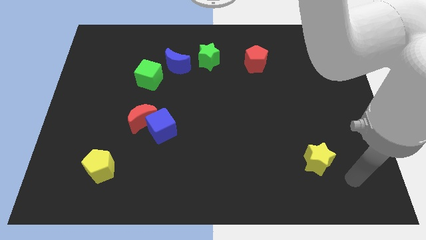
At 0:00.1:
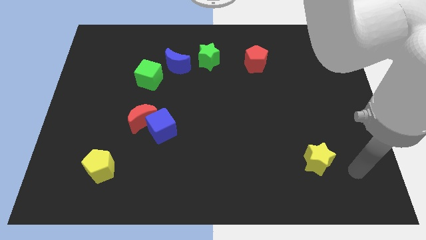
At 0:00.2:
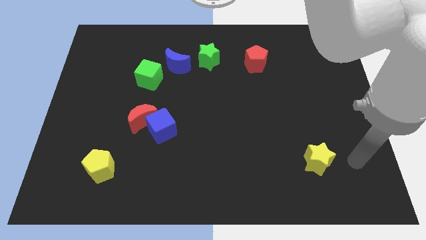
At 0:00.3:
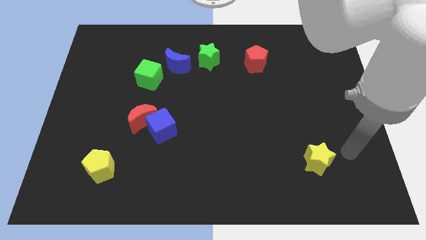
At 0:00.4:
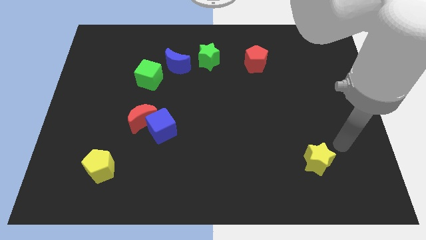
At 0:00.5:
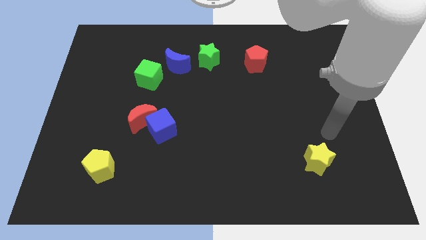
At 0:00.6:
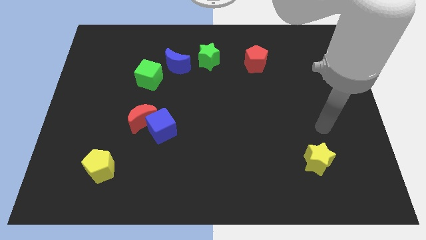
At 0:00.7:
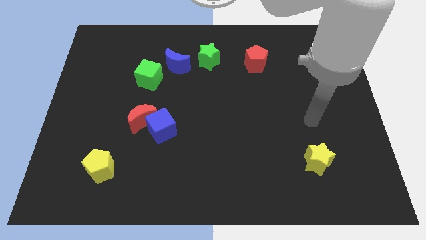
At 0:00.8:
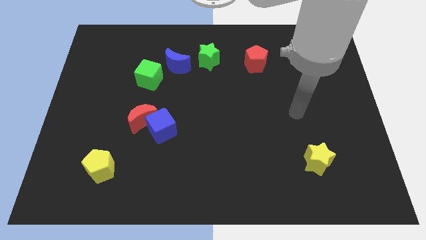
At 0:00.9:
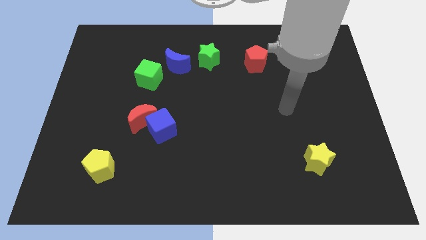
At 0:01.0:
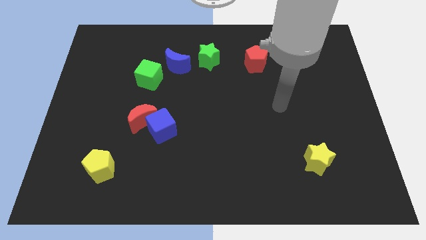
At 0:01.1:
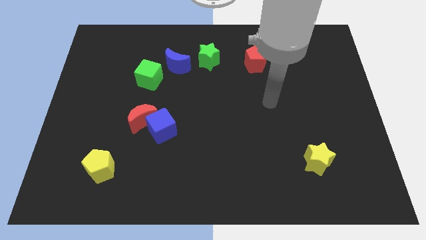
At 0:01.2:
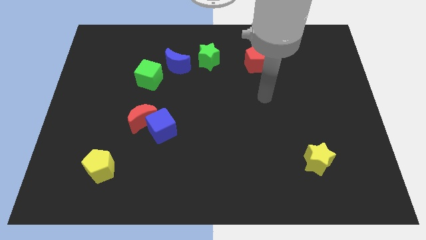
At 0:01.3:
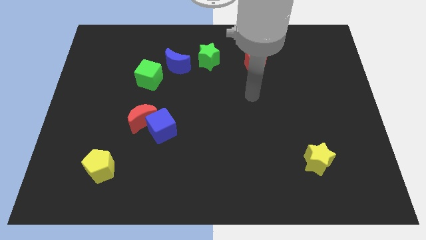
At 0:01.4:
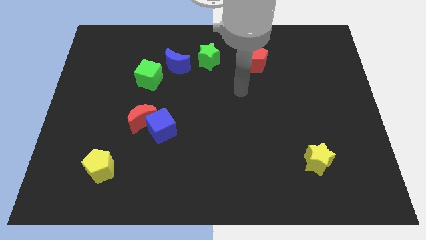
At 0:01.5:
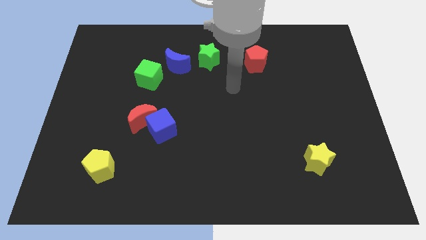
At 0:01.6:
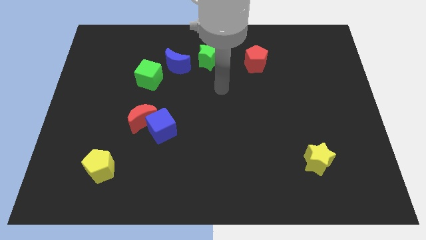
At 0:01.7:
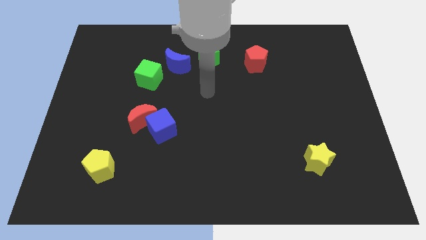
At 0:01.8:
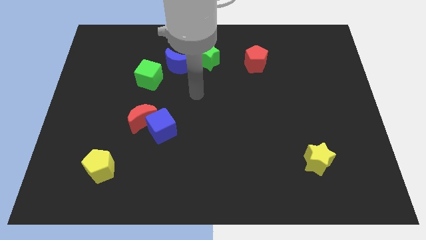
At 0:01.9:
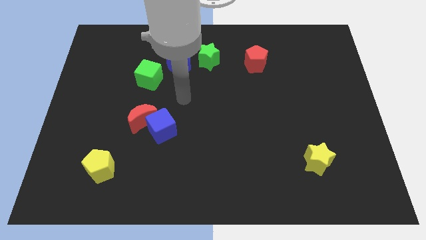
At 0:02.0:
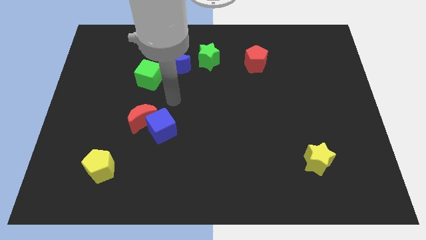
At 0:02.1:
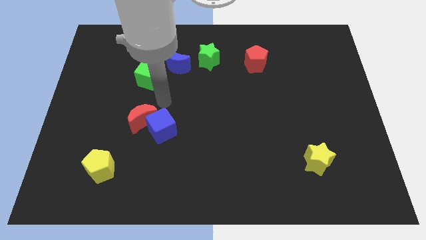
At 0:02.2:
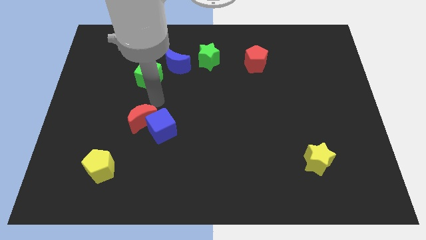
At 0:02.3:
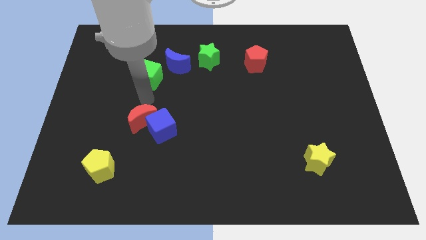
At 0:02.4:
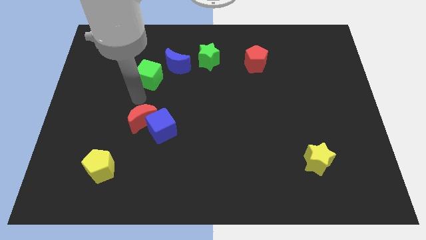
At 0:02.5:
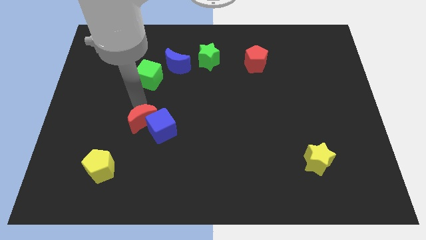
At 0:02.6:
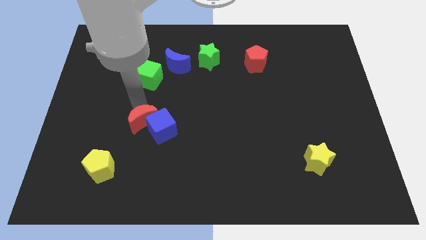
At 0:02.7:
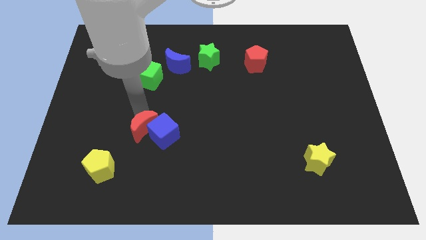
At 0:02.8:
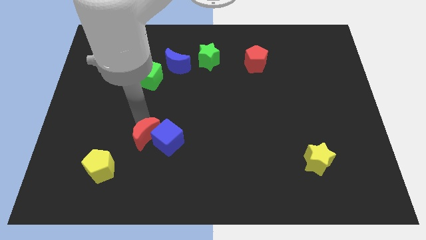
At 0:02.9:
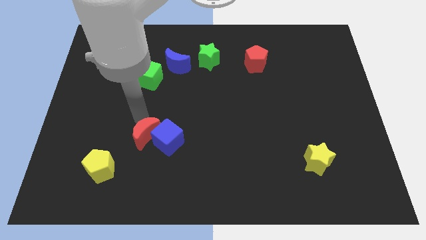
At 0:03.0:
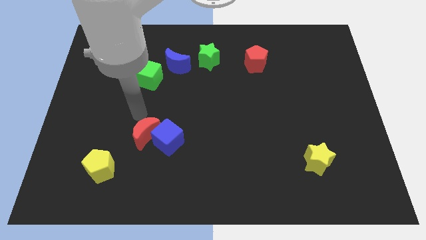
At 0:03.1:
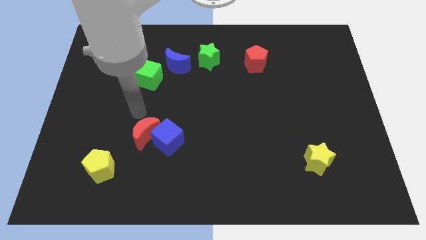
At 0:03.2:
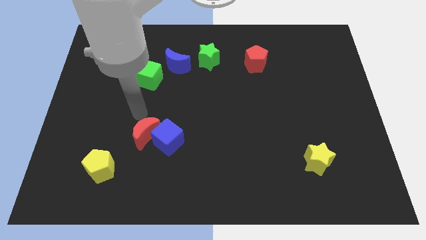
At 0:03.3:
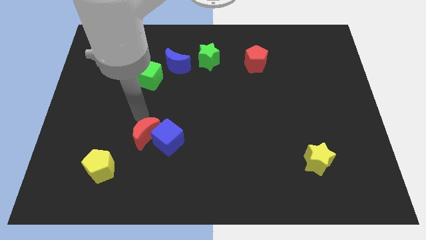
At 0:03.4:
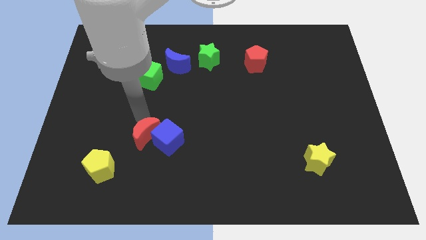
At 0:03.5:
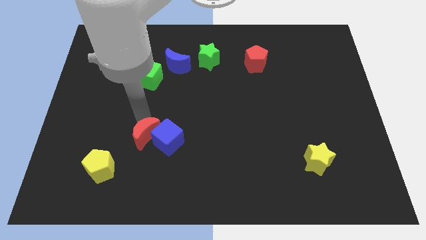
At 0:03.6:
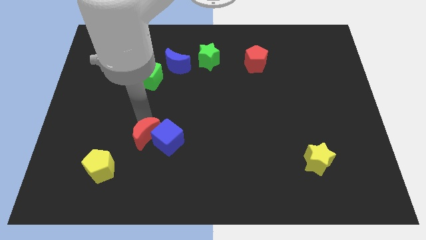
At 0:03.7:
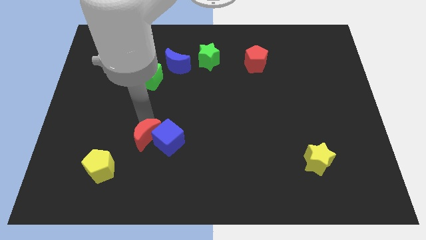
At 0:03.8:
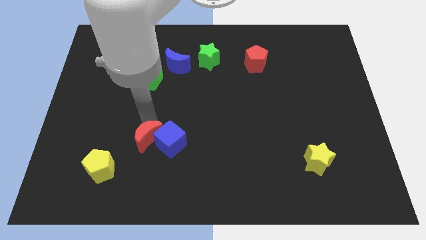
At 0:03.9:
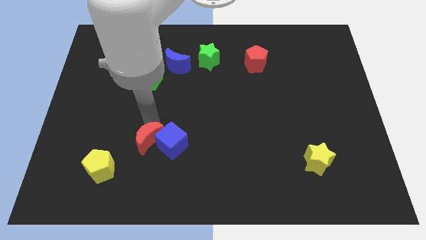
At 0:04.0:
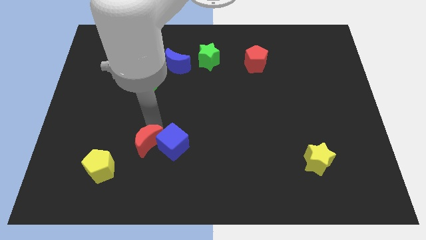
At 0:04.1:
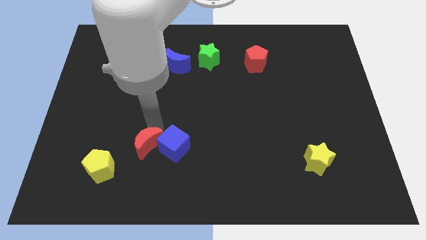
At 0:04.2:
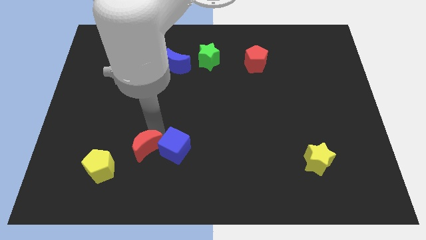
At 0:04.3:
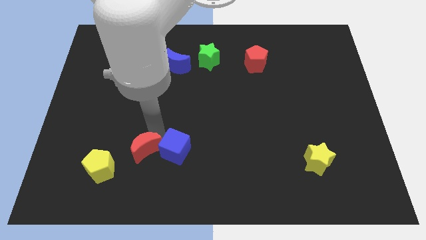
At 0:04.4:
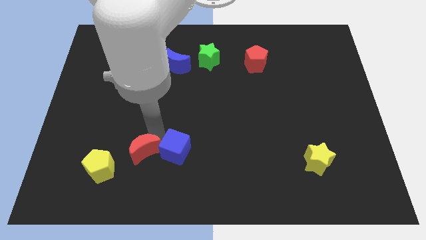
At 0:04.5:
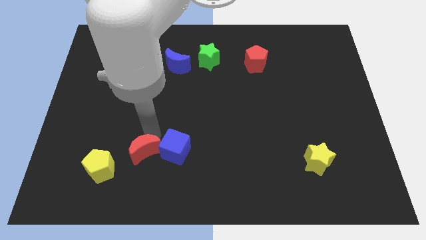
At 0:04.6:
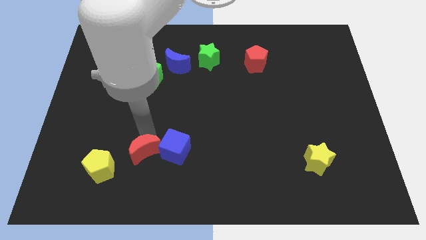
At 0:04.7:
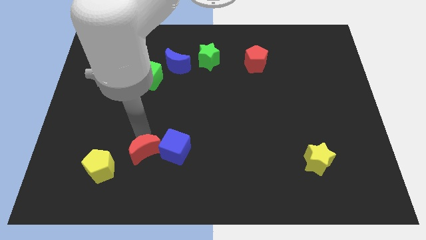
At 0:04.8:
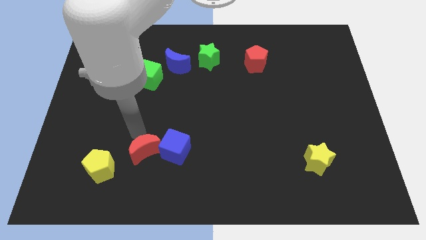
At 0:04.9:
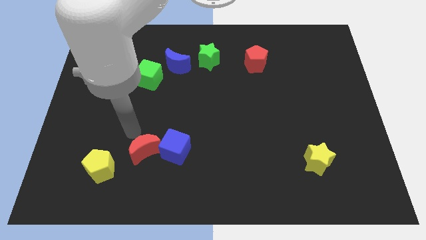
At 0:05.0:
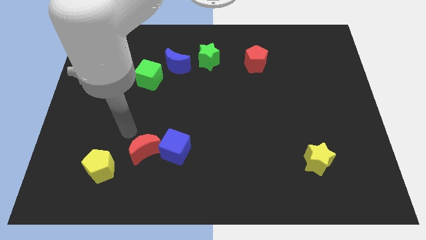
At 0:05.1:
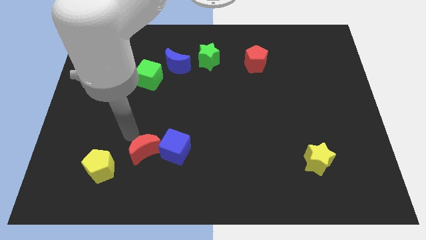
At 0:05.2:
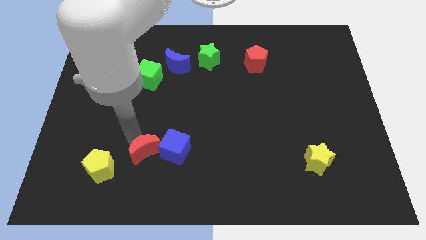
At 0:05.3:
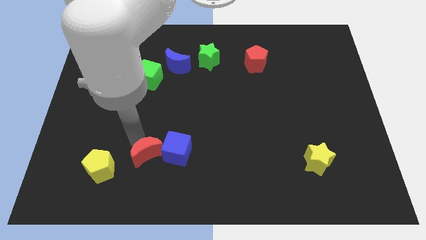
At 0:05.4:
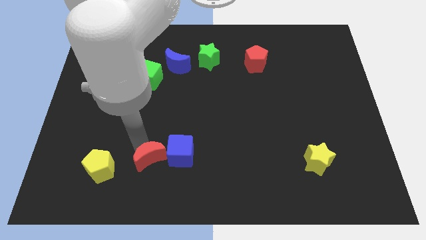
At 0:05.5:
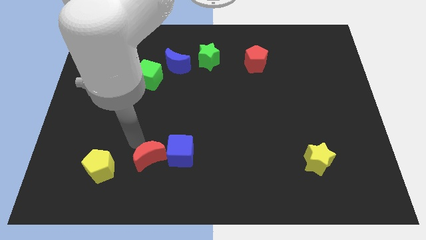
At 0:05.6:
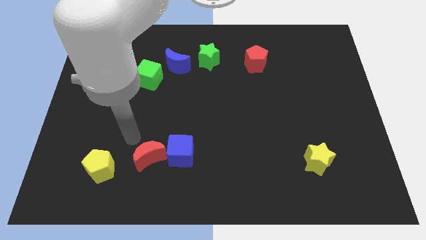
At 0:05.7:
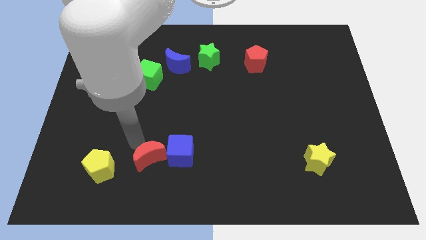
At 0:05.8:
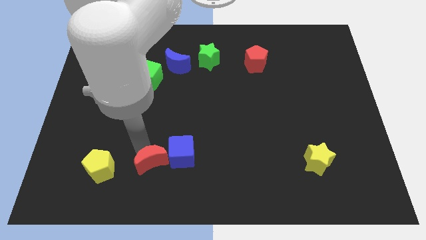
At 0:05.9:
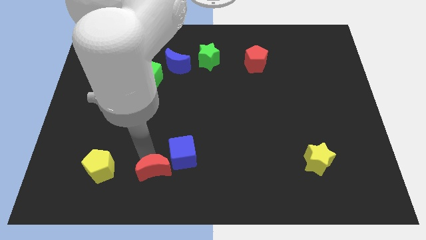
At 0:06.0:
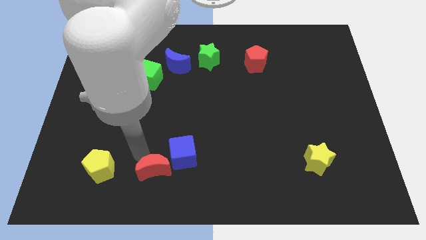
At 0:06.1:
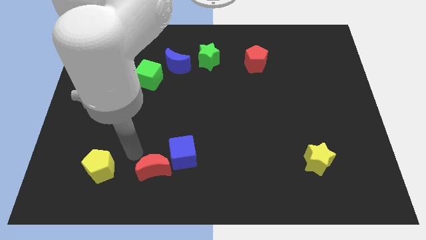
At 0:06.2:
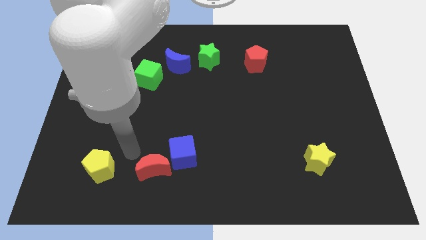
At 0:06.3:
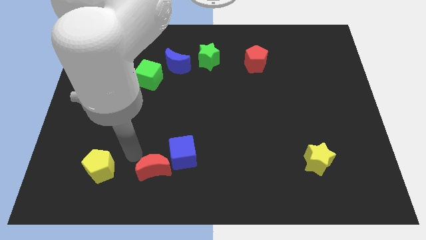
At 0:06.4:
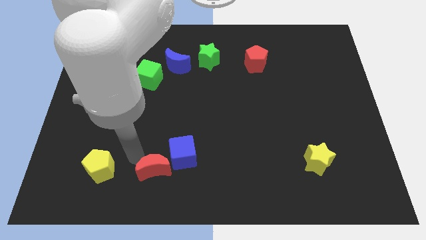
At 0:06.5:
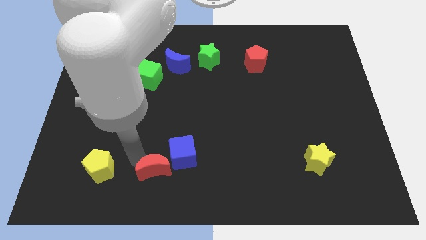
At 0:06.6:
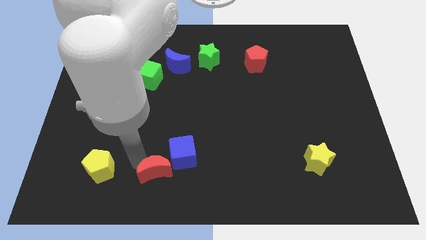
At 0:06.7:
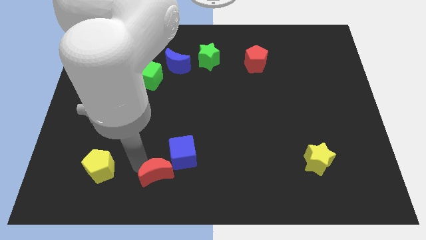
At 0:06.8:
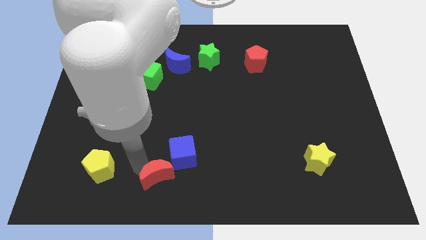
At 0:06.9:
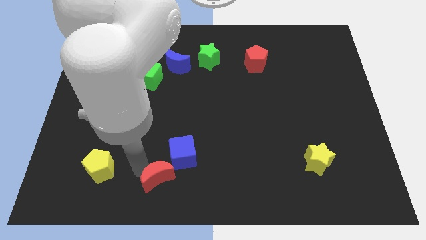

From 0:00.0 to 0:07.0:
move the red moon to the bottom

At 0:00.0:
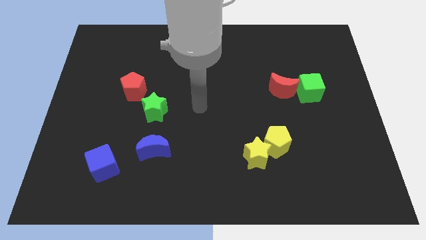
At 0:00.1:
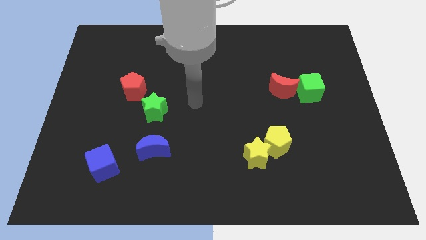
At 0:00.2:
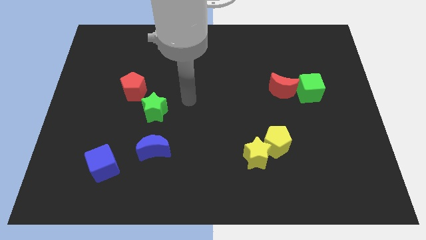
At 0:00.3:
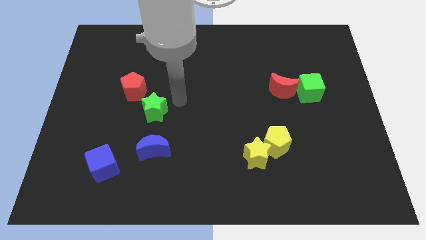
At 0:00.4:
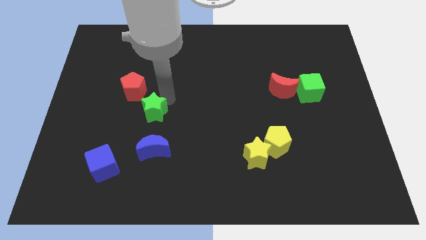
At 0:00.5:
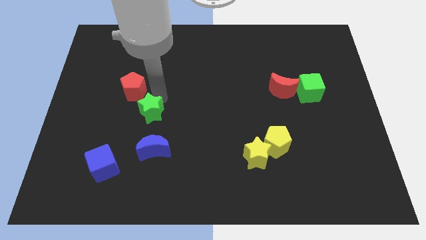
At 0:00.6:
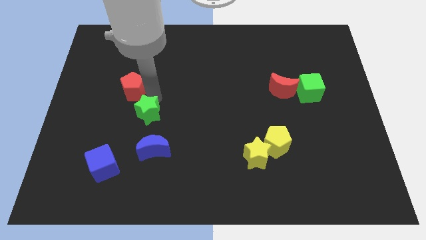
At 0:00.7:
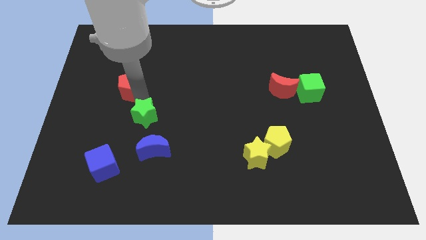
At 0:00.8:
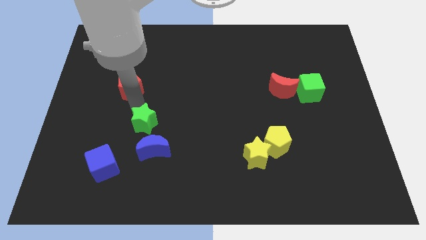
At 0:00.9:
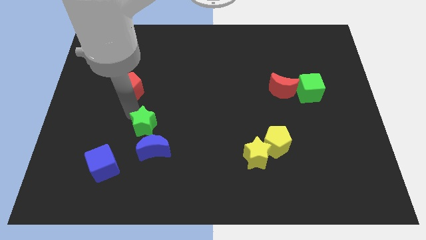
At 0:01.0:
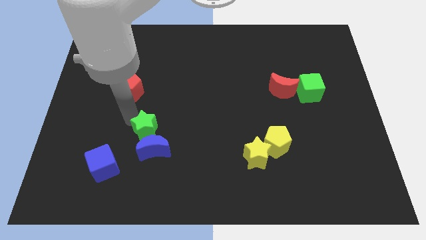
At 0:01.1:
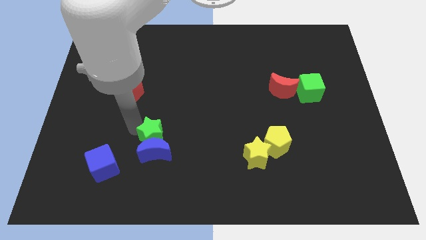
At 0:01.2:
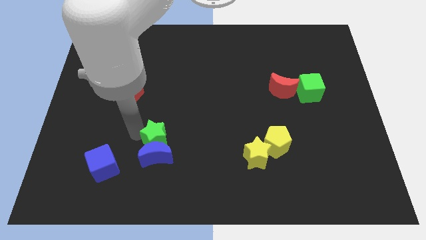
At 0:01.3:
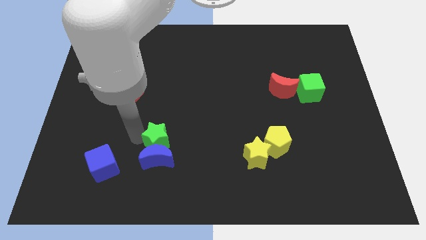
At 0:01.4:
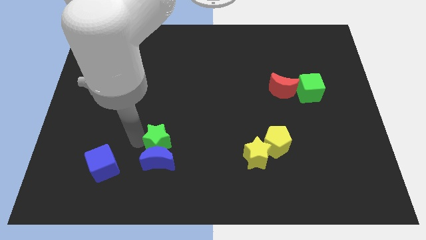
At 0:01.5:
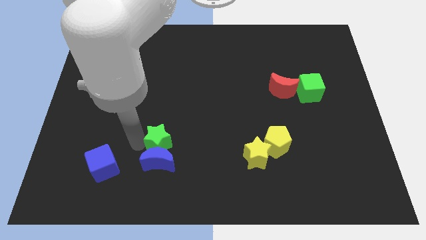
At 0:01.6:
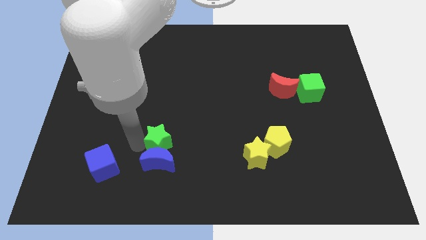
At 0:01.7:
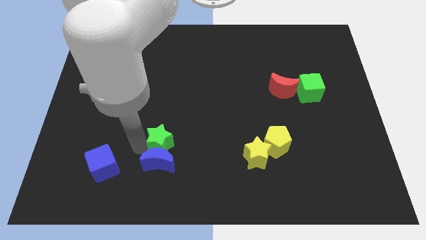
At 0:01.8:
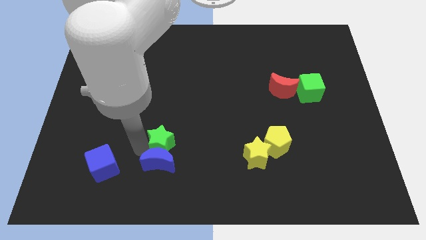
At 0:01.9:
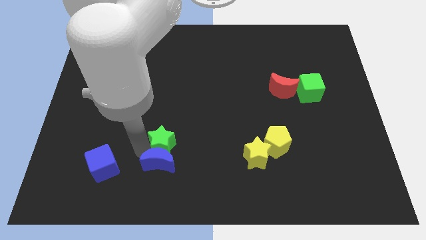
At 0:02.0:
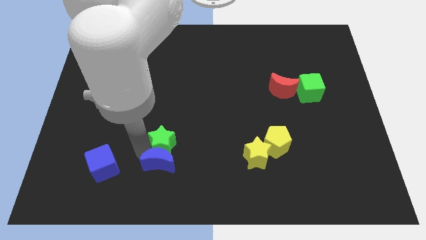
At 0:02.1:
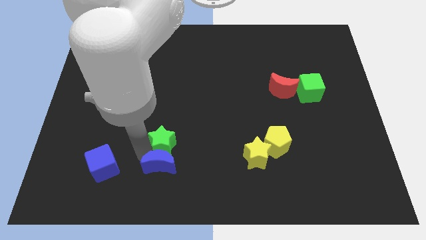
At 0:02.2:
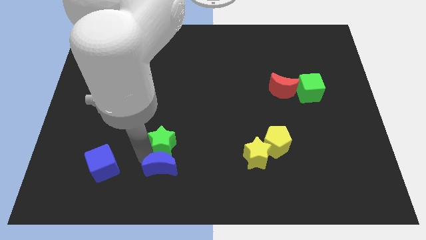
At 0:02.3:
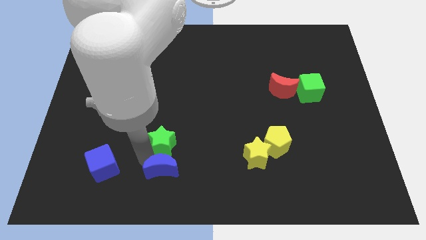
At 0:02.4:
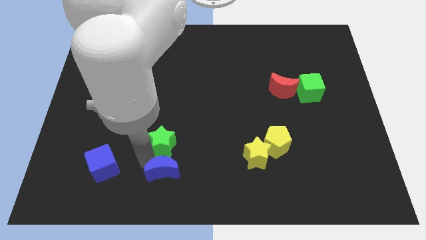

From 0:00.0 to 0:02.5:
put the blue moon to the bottom
